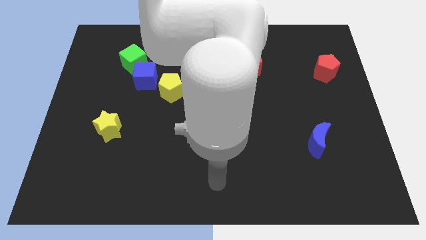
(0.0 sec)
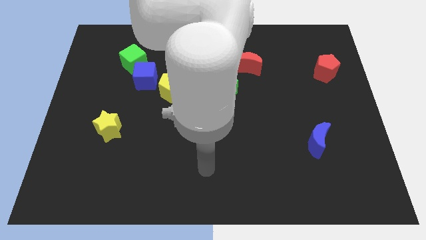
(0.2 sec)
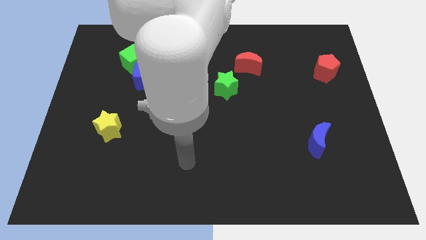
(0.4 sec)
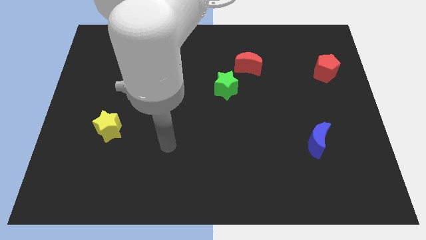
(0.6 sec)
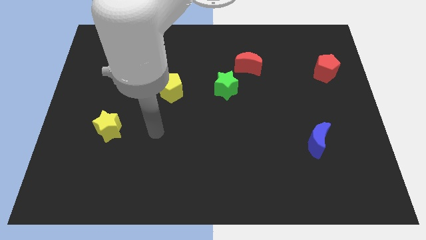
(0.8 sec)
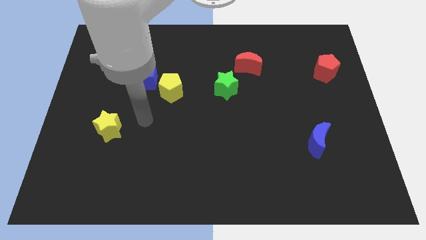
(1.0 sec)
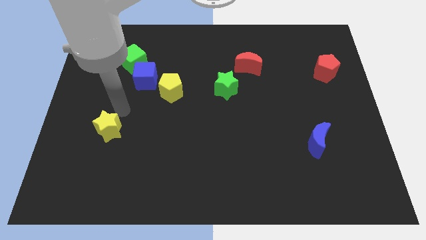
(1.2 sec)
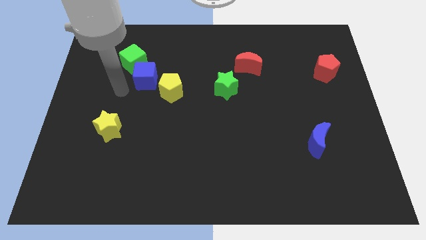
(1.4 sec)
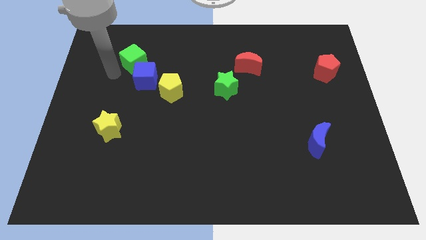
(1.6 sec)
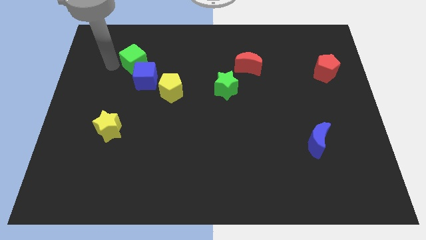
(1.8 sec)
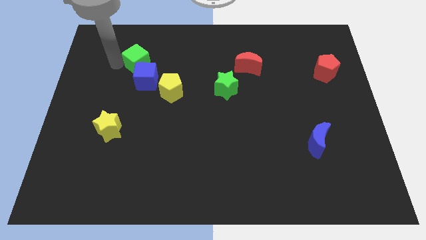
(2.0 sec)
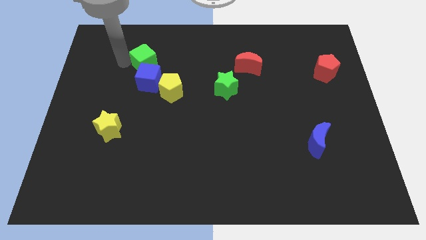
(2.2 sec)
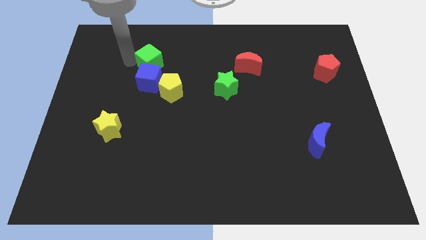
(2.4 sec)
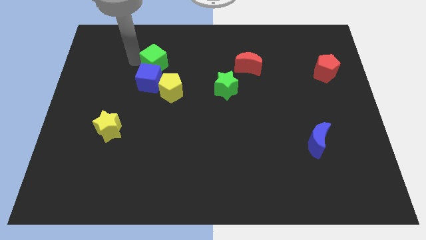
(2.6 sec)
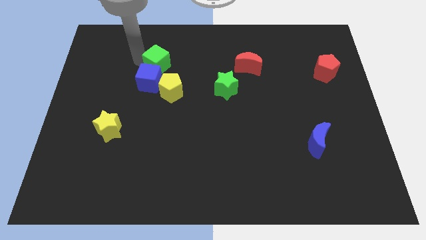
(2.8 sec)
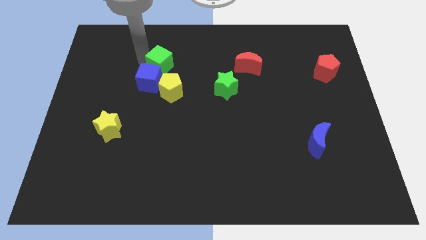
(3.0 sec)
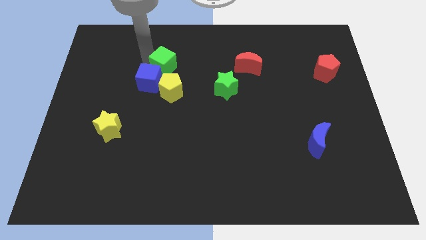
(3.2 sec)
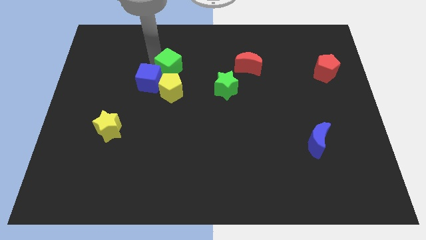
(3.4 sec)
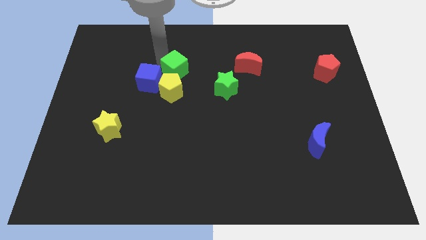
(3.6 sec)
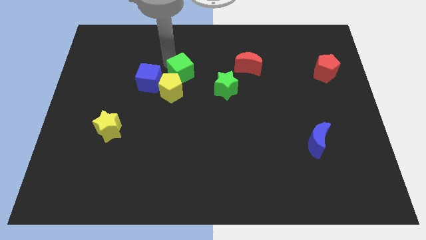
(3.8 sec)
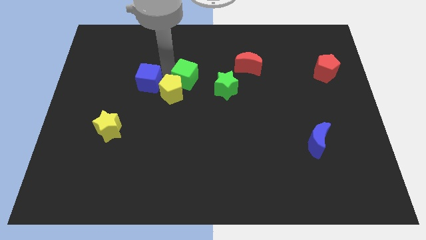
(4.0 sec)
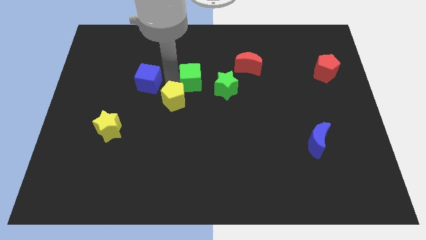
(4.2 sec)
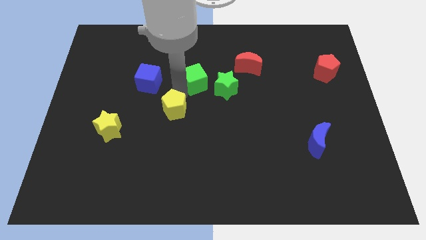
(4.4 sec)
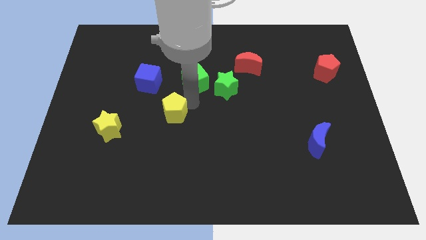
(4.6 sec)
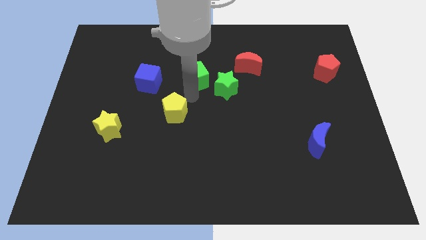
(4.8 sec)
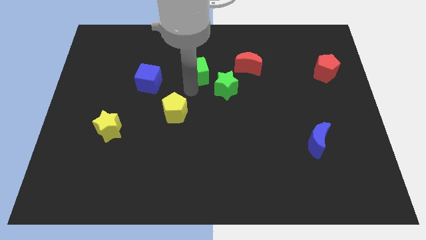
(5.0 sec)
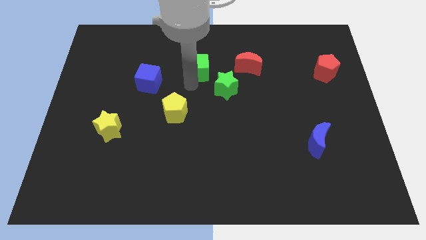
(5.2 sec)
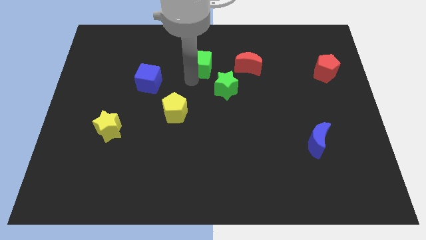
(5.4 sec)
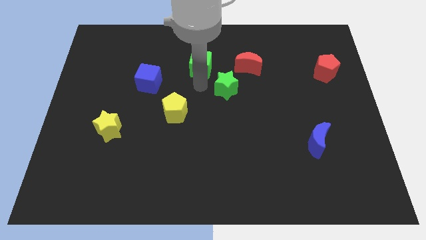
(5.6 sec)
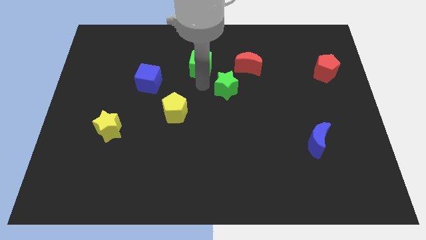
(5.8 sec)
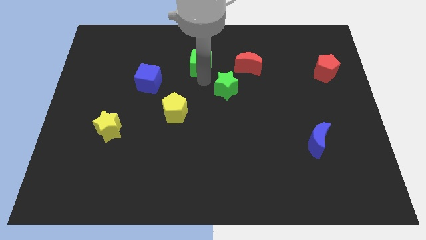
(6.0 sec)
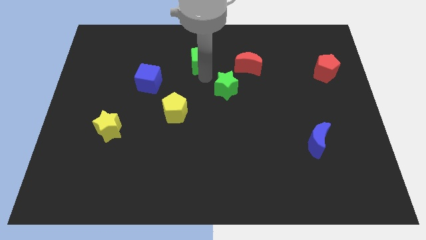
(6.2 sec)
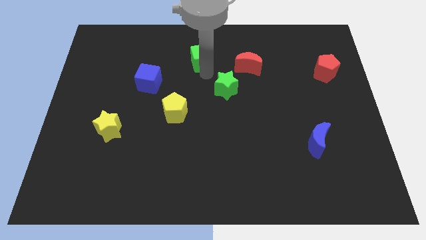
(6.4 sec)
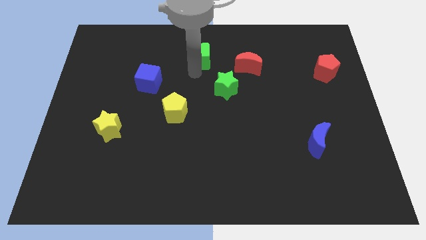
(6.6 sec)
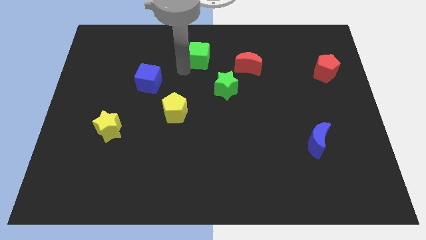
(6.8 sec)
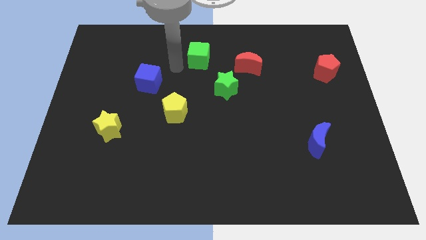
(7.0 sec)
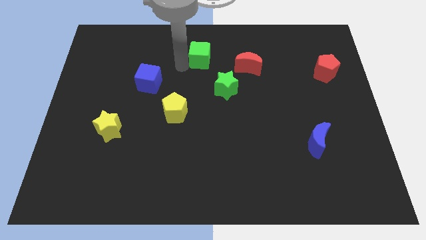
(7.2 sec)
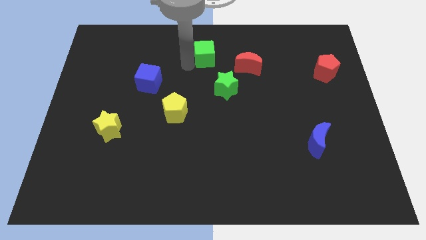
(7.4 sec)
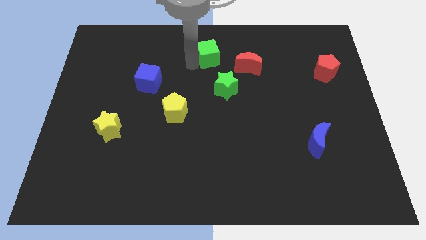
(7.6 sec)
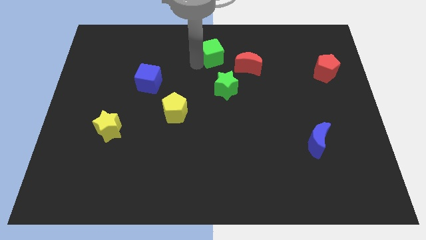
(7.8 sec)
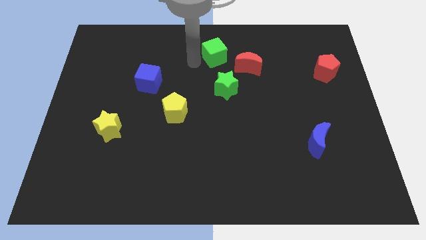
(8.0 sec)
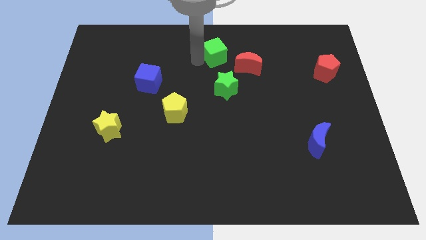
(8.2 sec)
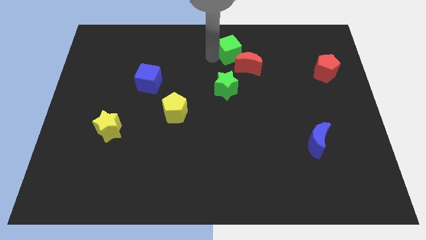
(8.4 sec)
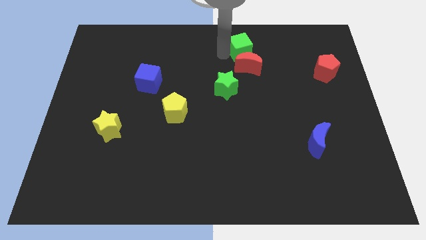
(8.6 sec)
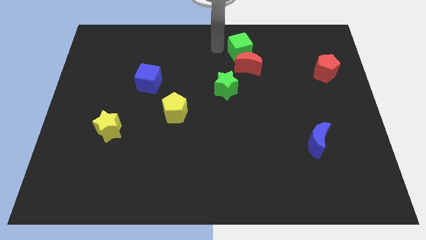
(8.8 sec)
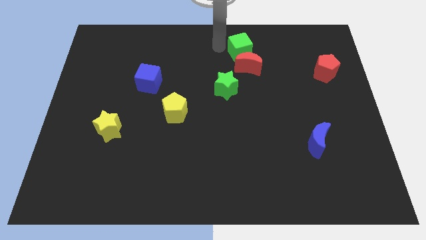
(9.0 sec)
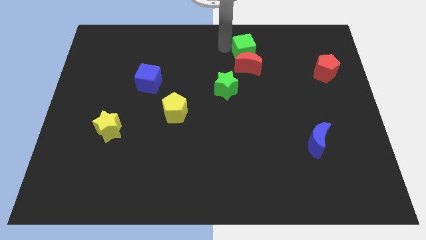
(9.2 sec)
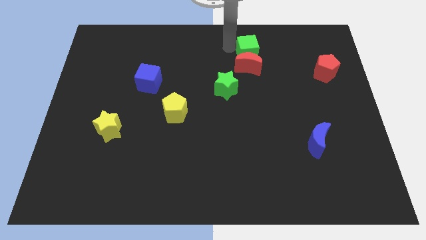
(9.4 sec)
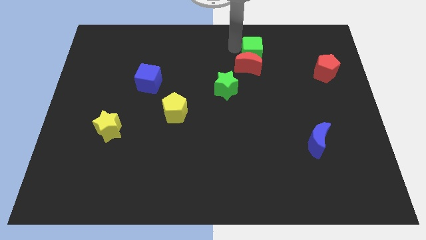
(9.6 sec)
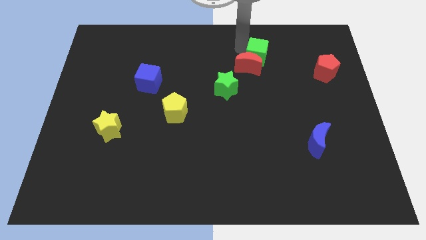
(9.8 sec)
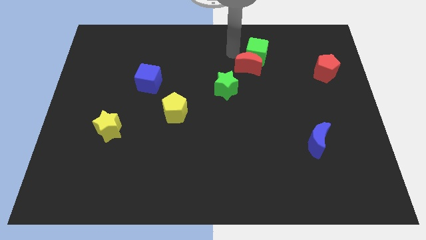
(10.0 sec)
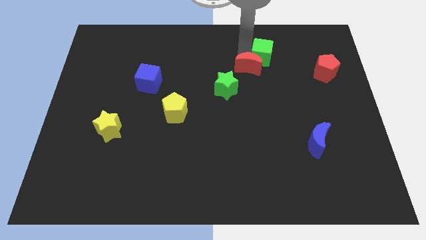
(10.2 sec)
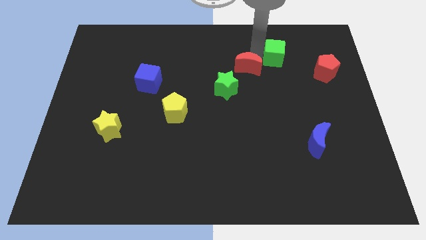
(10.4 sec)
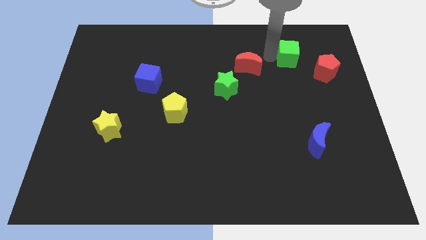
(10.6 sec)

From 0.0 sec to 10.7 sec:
move the green cube to the top left side of the red pentagon

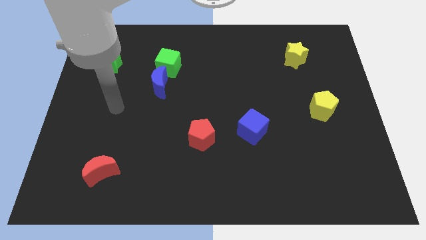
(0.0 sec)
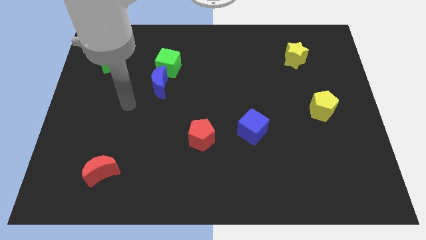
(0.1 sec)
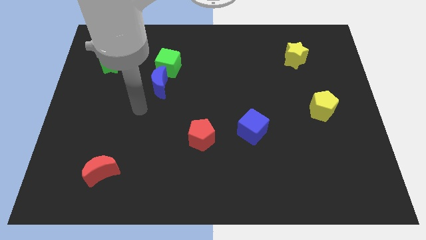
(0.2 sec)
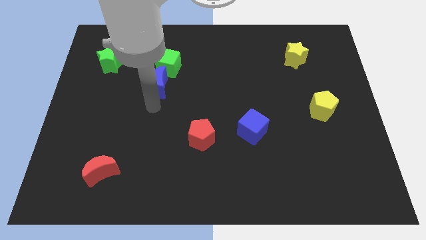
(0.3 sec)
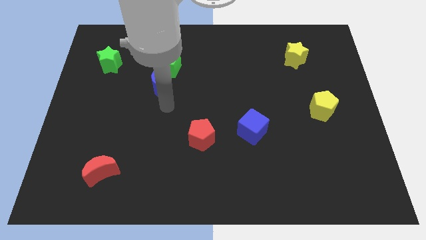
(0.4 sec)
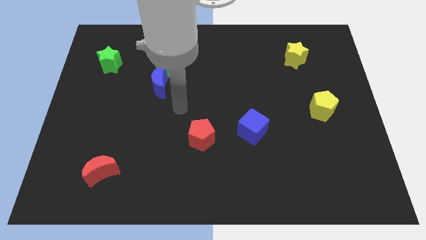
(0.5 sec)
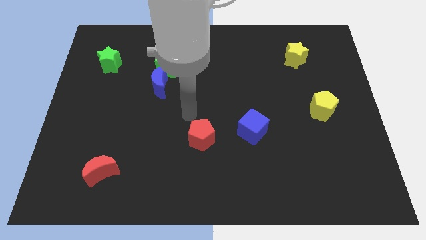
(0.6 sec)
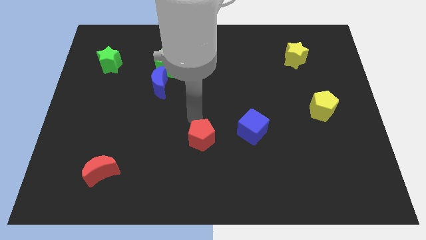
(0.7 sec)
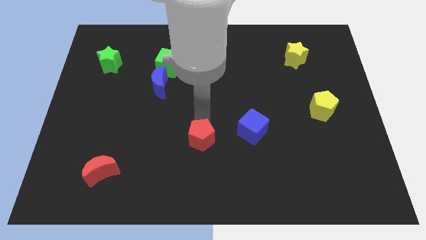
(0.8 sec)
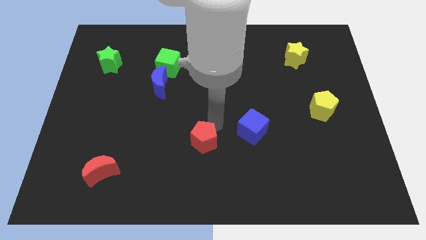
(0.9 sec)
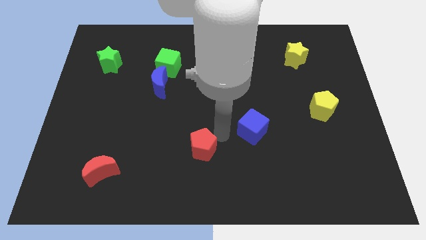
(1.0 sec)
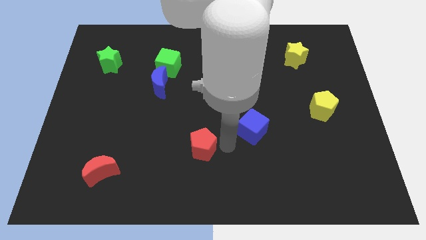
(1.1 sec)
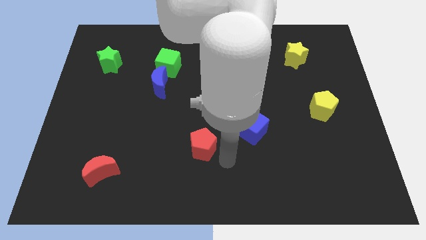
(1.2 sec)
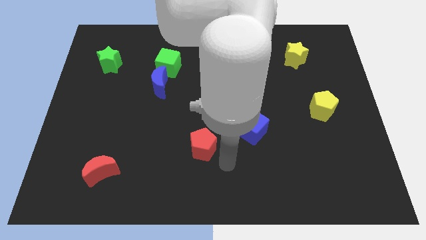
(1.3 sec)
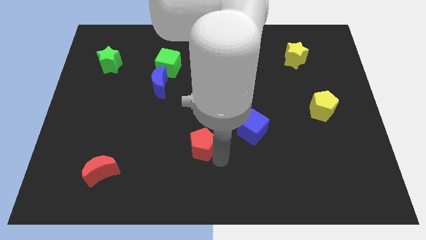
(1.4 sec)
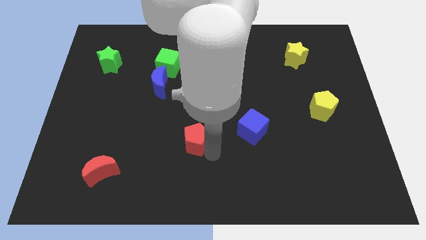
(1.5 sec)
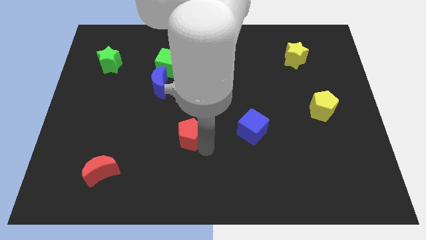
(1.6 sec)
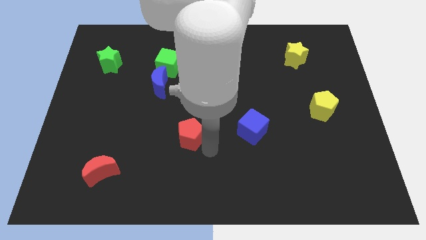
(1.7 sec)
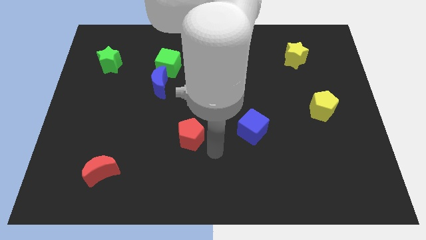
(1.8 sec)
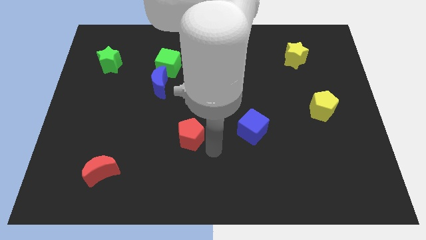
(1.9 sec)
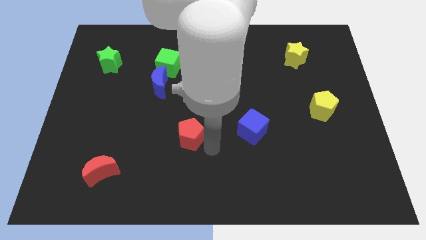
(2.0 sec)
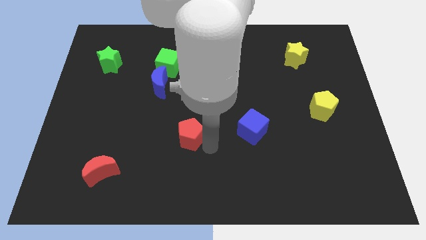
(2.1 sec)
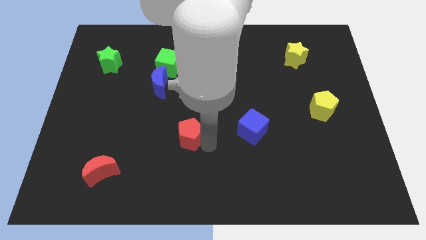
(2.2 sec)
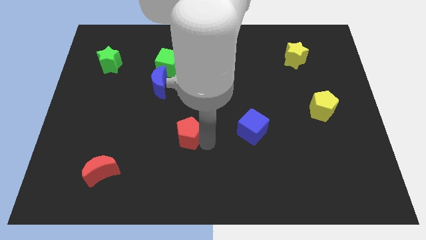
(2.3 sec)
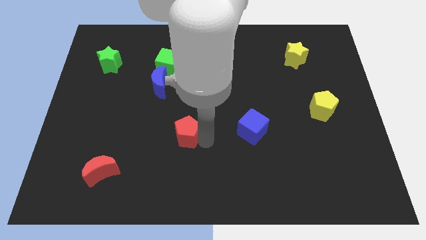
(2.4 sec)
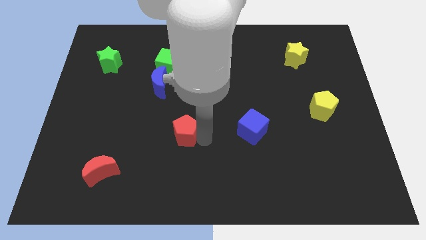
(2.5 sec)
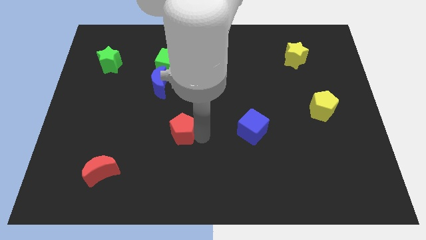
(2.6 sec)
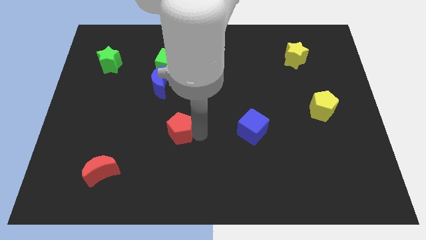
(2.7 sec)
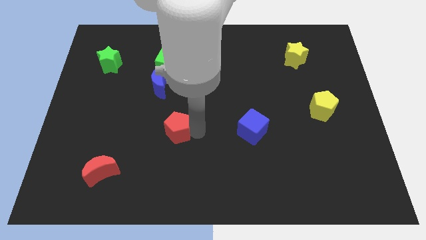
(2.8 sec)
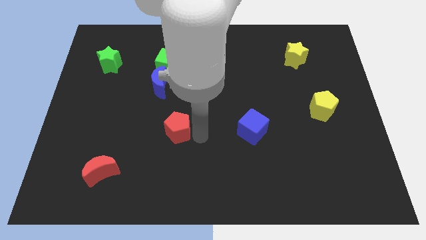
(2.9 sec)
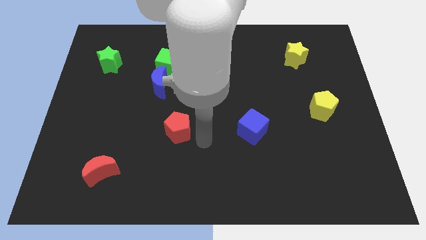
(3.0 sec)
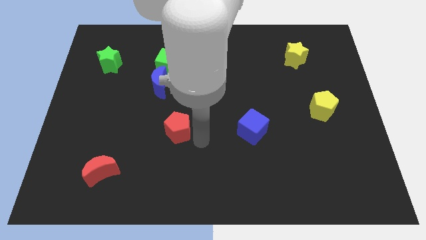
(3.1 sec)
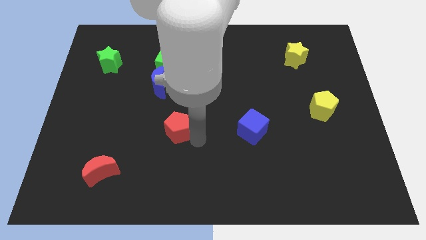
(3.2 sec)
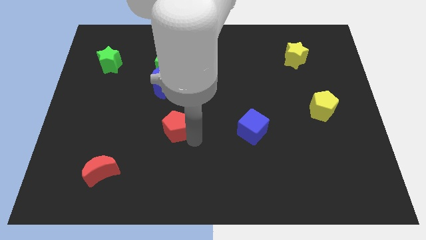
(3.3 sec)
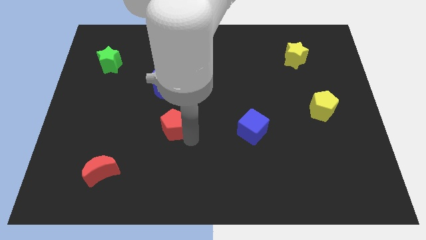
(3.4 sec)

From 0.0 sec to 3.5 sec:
put the red pentagon to the bottom of the blue moon
